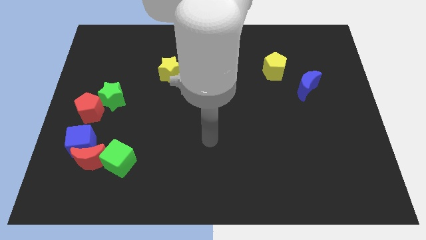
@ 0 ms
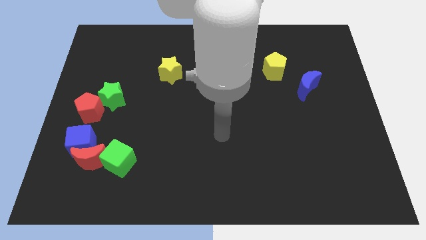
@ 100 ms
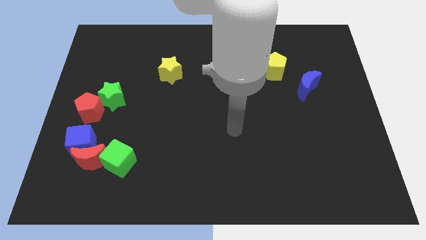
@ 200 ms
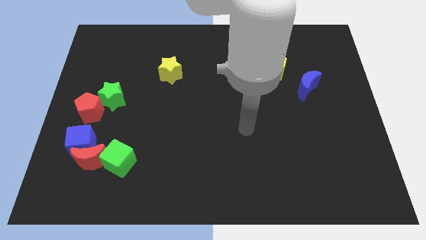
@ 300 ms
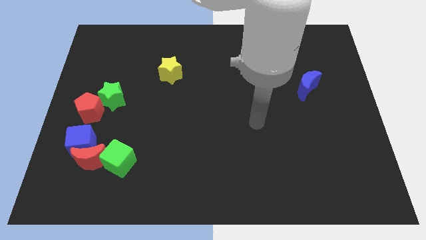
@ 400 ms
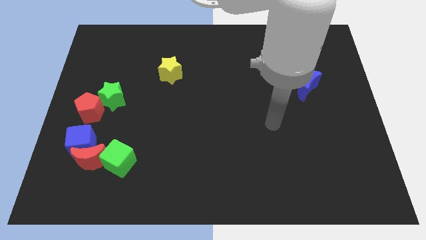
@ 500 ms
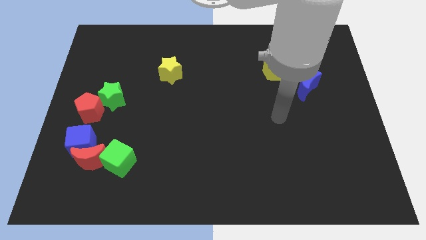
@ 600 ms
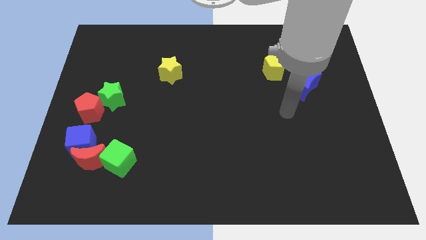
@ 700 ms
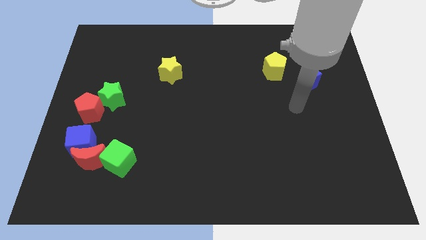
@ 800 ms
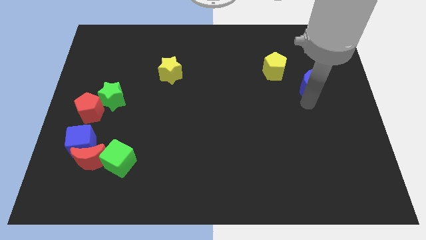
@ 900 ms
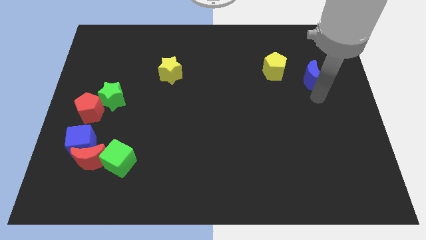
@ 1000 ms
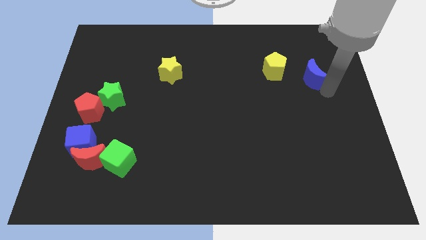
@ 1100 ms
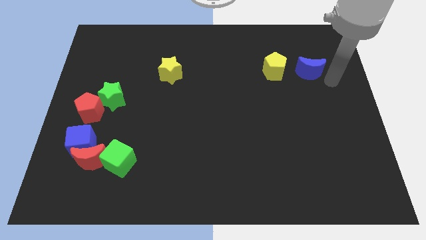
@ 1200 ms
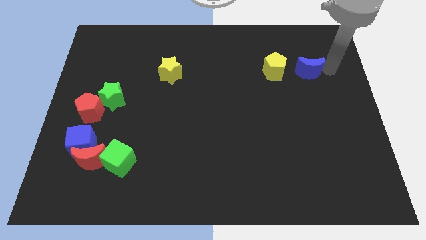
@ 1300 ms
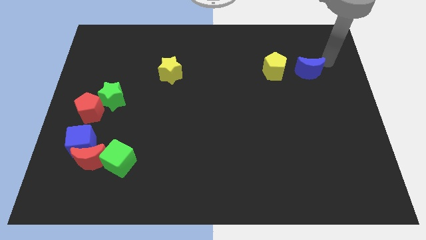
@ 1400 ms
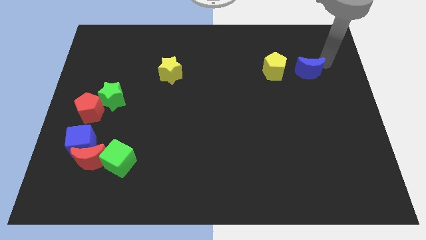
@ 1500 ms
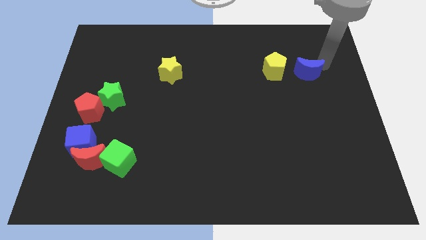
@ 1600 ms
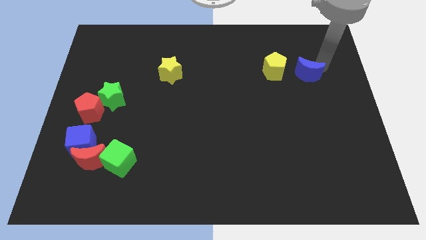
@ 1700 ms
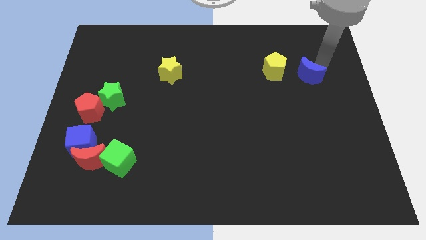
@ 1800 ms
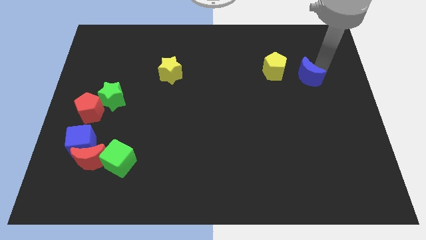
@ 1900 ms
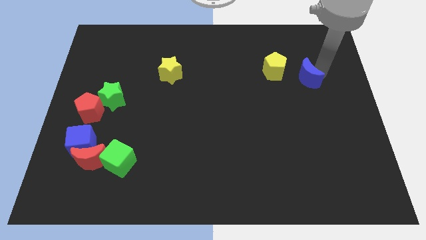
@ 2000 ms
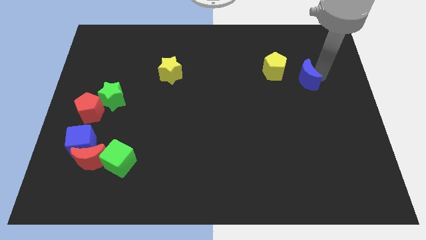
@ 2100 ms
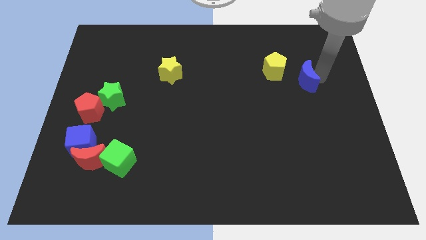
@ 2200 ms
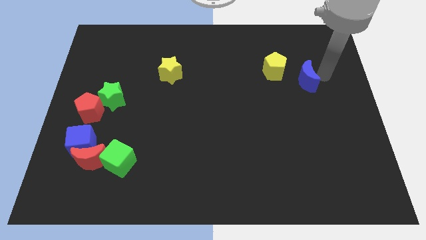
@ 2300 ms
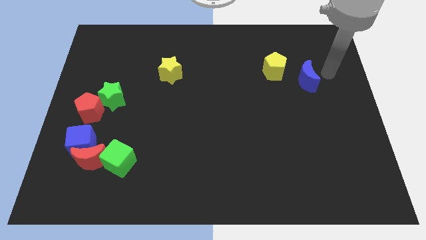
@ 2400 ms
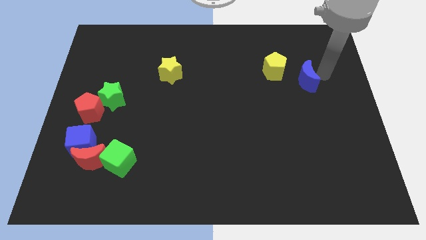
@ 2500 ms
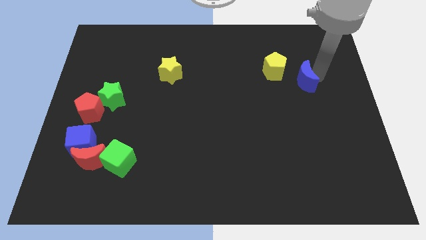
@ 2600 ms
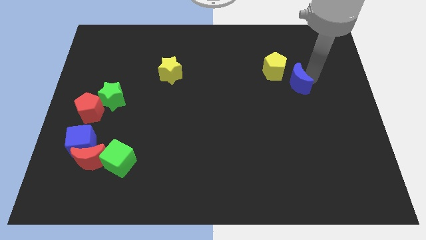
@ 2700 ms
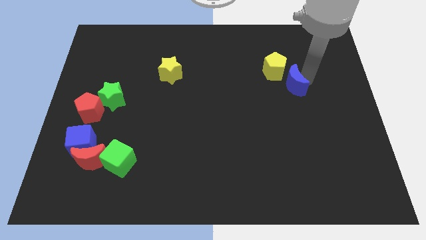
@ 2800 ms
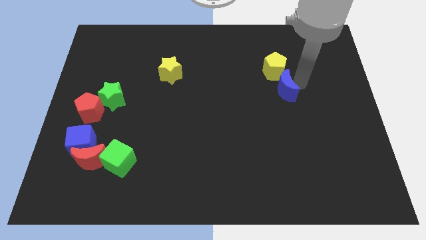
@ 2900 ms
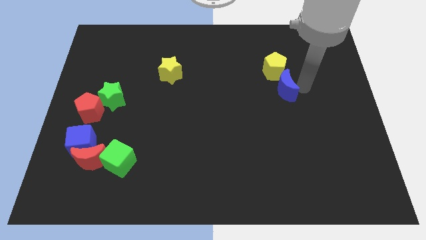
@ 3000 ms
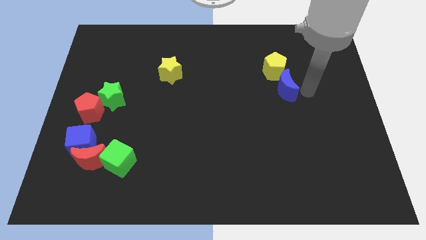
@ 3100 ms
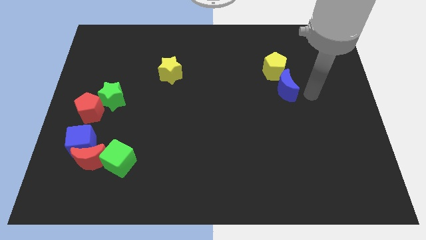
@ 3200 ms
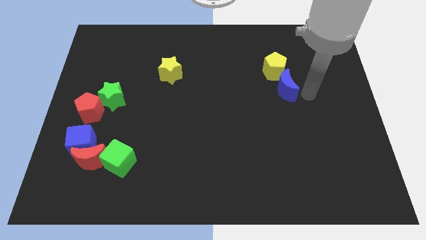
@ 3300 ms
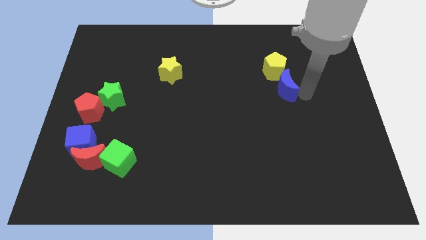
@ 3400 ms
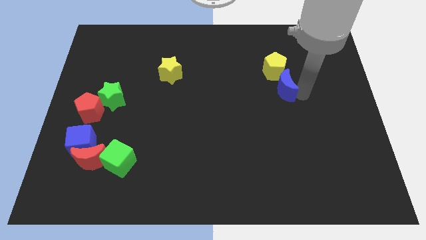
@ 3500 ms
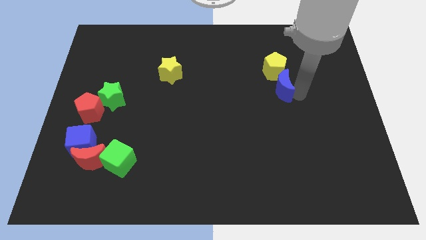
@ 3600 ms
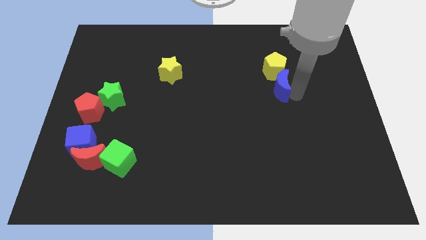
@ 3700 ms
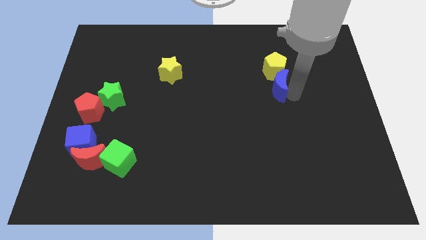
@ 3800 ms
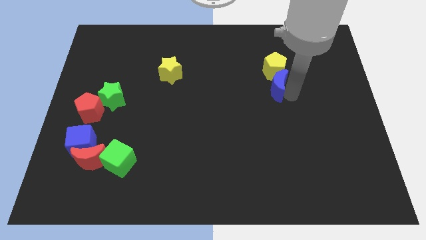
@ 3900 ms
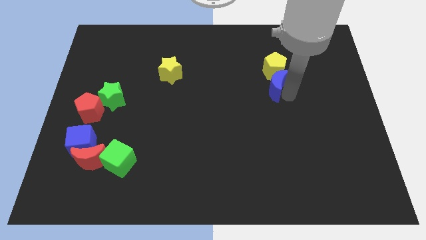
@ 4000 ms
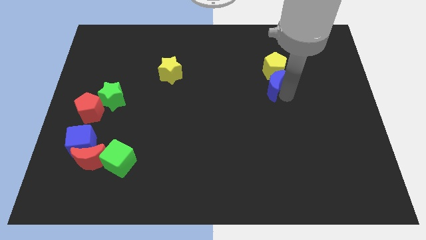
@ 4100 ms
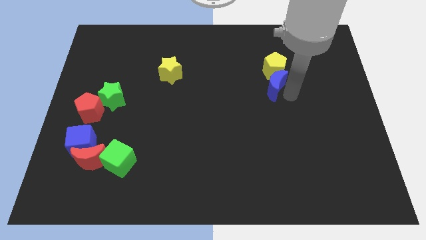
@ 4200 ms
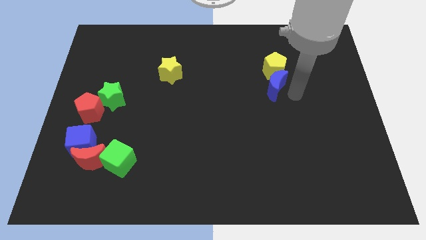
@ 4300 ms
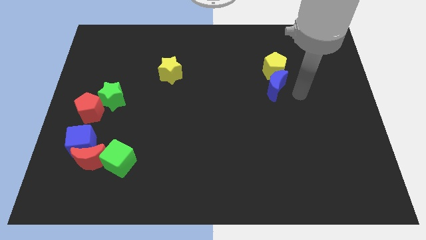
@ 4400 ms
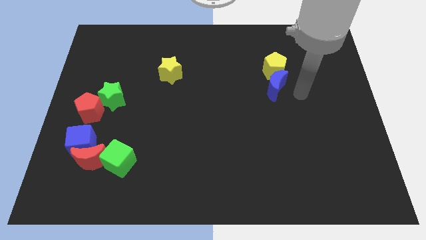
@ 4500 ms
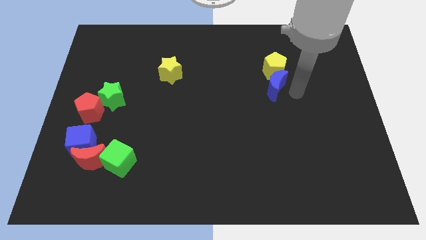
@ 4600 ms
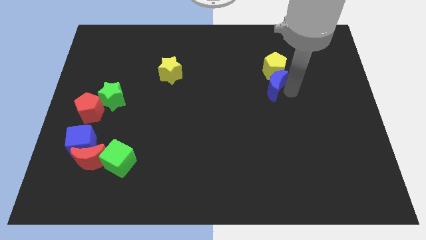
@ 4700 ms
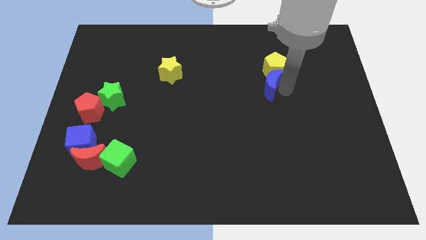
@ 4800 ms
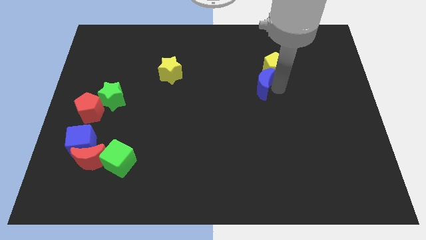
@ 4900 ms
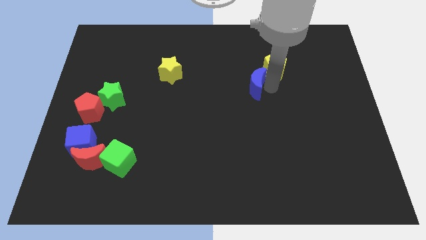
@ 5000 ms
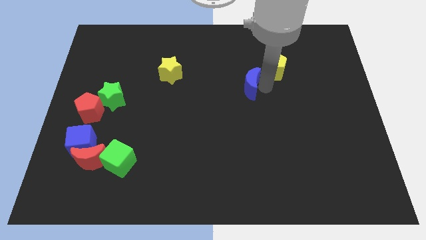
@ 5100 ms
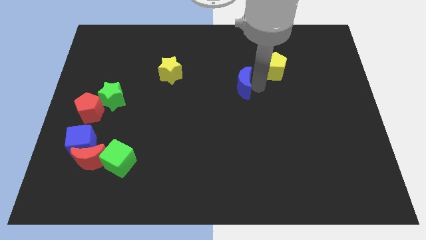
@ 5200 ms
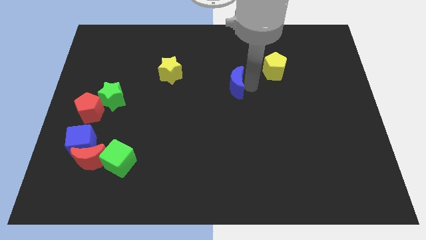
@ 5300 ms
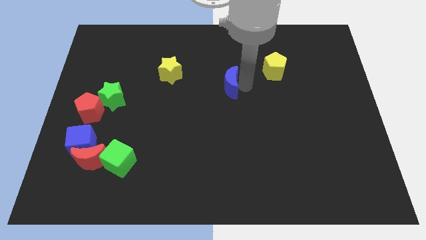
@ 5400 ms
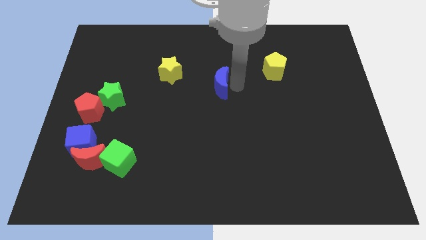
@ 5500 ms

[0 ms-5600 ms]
move the blue moon left

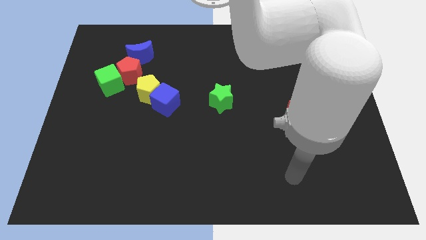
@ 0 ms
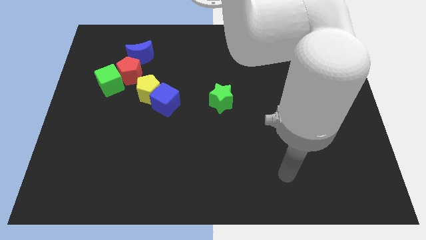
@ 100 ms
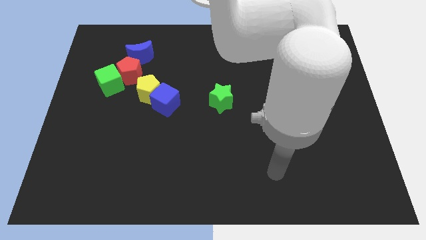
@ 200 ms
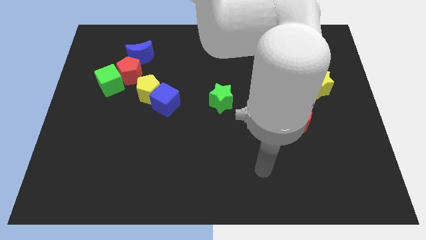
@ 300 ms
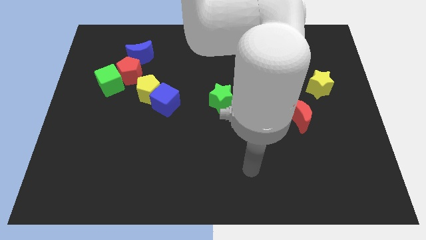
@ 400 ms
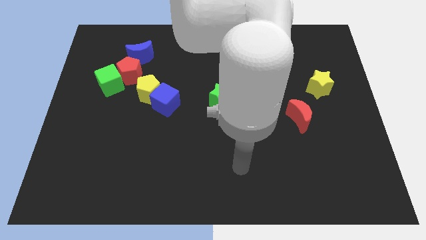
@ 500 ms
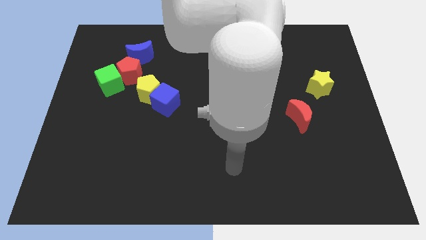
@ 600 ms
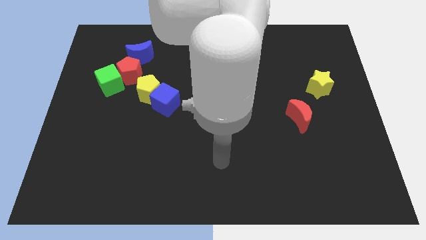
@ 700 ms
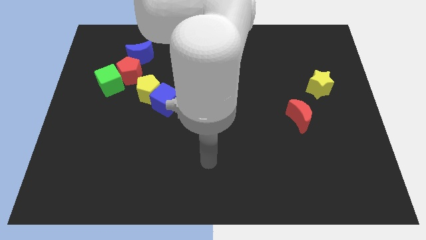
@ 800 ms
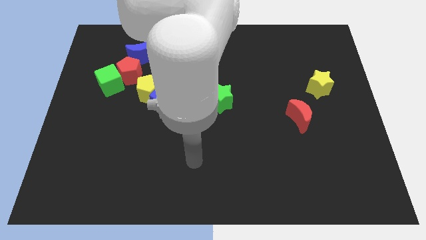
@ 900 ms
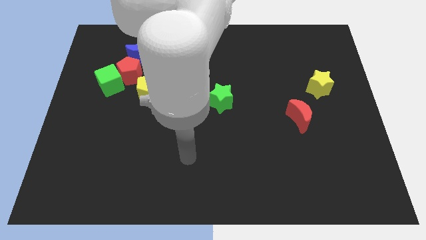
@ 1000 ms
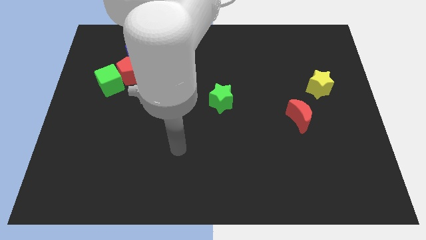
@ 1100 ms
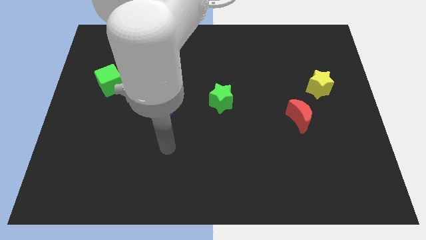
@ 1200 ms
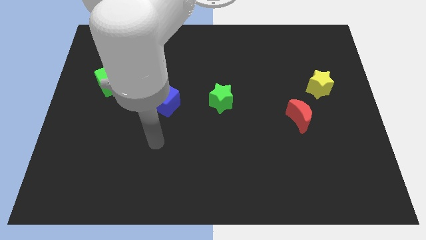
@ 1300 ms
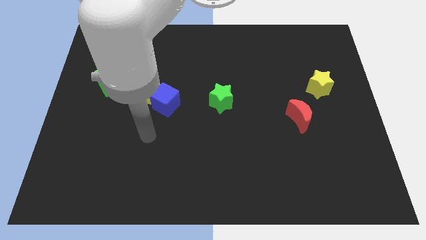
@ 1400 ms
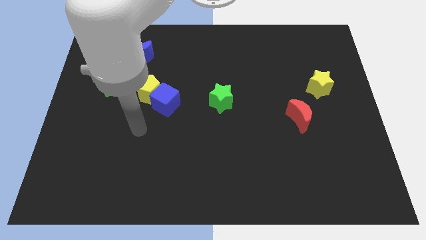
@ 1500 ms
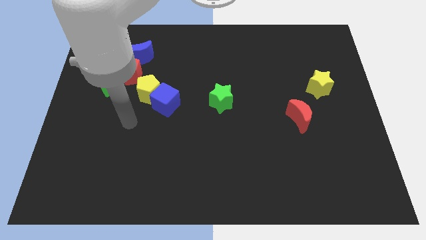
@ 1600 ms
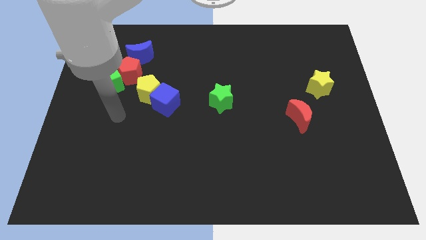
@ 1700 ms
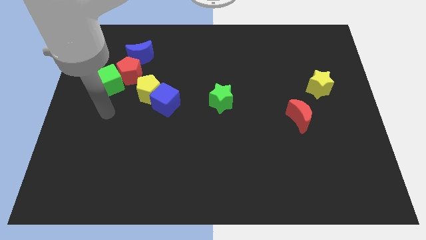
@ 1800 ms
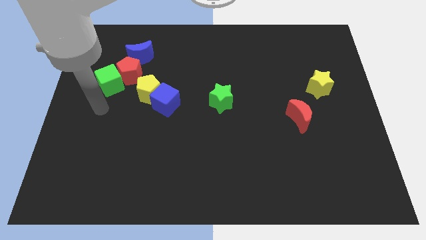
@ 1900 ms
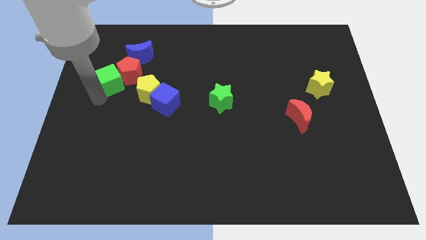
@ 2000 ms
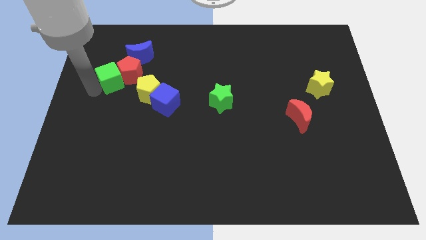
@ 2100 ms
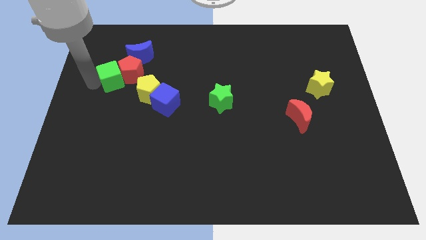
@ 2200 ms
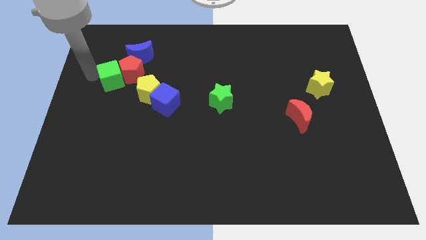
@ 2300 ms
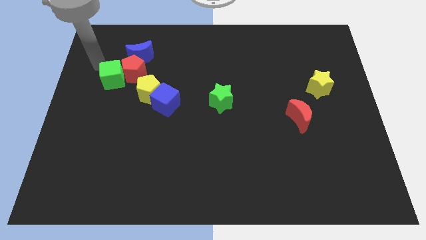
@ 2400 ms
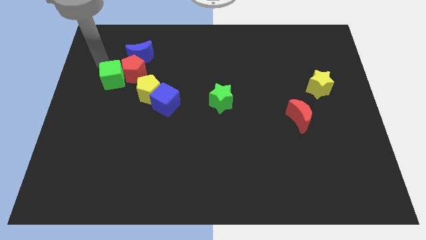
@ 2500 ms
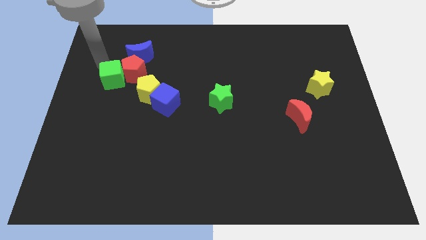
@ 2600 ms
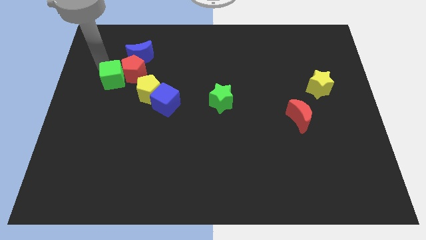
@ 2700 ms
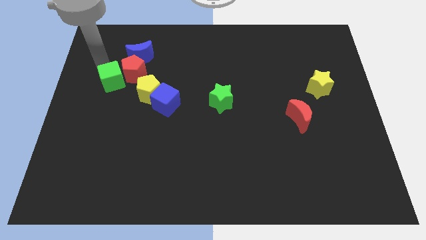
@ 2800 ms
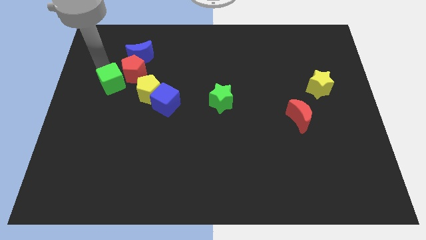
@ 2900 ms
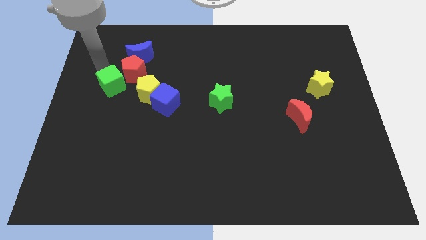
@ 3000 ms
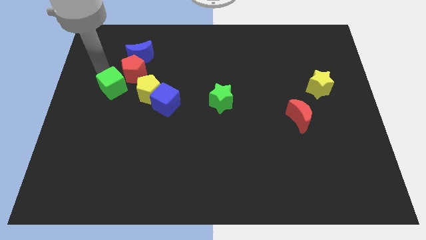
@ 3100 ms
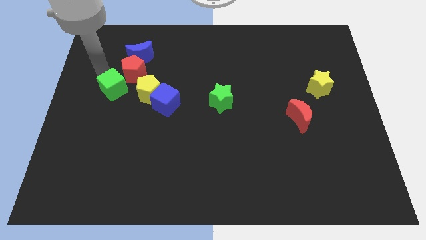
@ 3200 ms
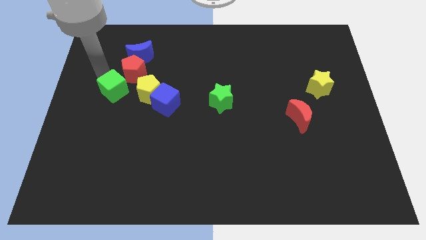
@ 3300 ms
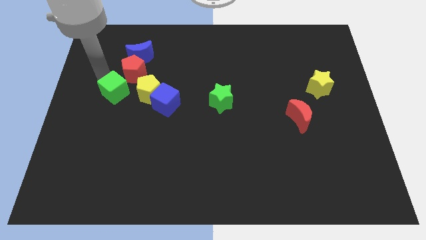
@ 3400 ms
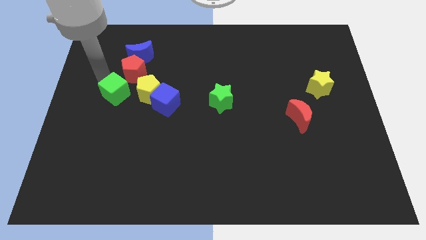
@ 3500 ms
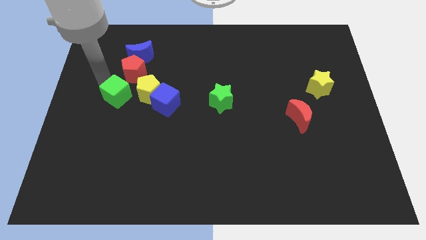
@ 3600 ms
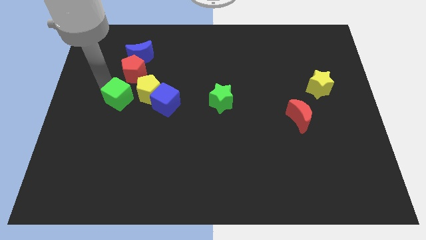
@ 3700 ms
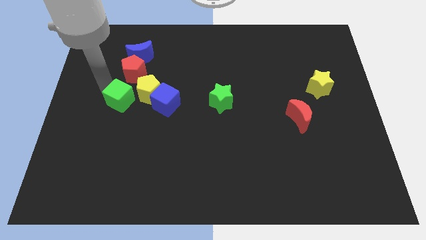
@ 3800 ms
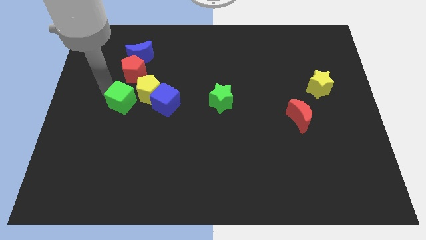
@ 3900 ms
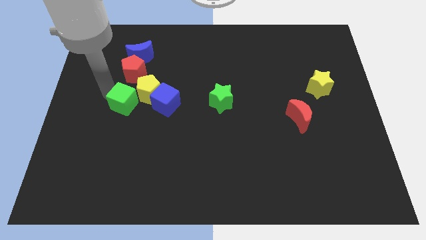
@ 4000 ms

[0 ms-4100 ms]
slide the green cube down and right a bit
